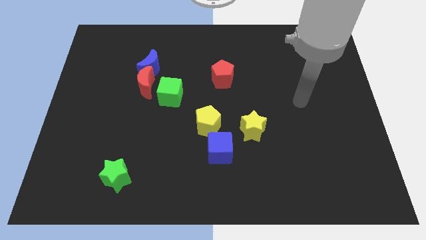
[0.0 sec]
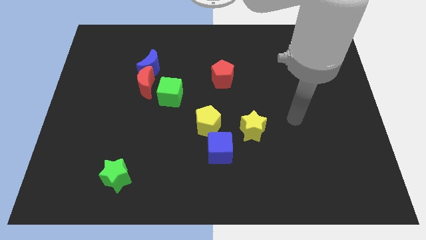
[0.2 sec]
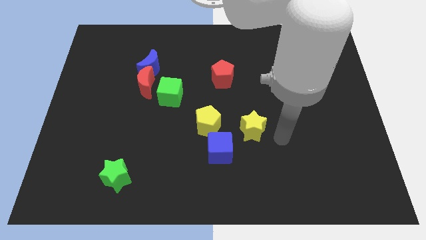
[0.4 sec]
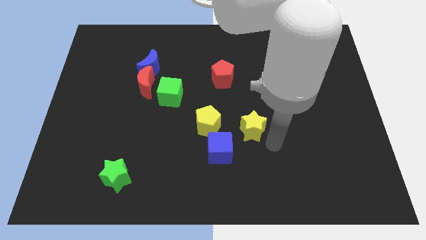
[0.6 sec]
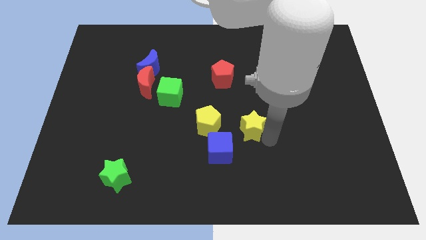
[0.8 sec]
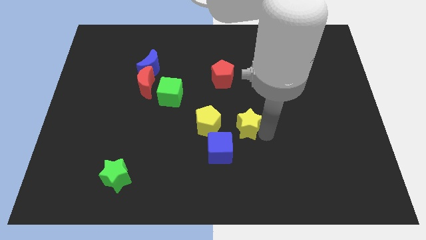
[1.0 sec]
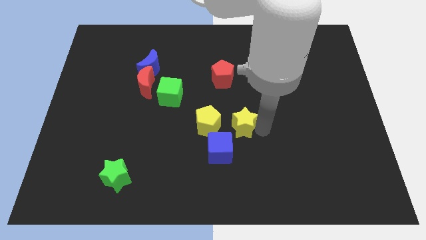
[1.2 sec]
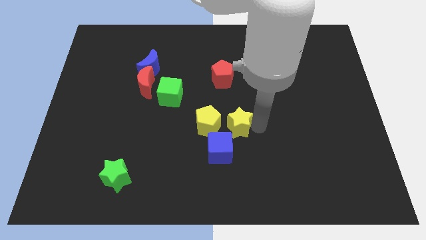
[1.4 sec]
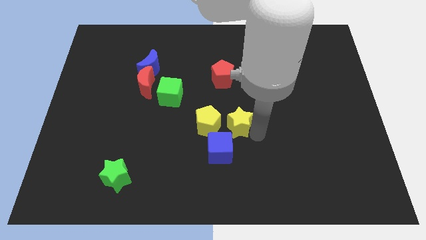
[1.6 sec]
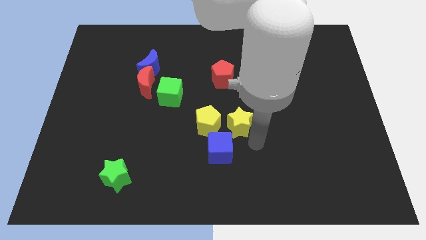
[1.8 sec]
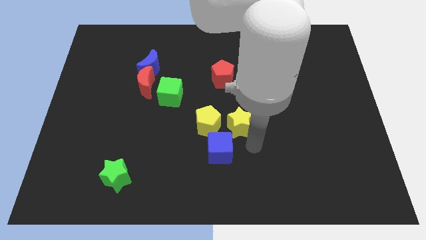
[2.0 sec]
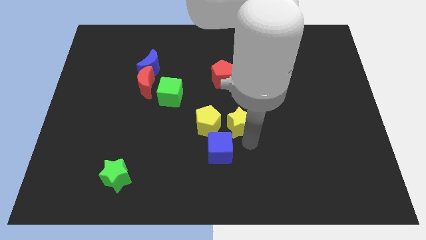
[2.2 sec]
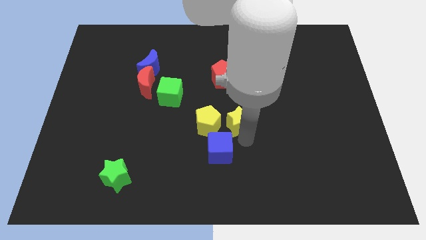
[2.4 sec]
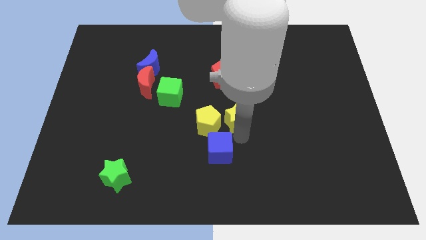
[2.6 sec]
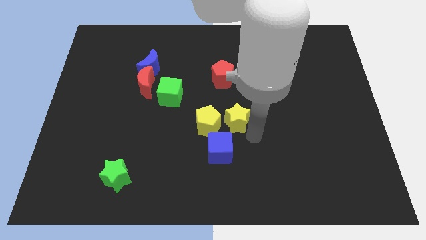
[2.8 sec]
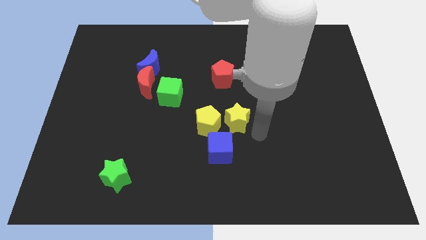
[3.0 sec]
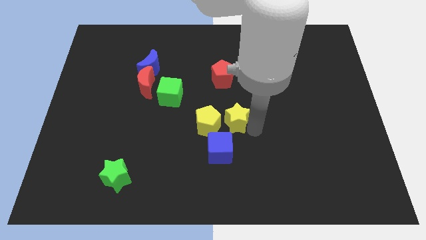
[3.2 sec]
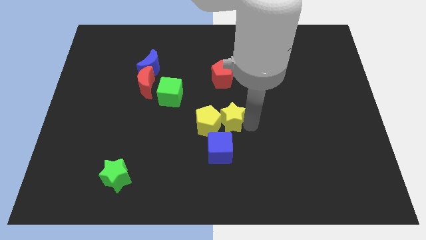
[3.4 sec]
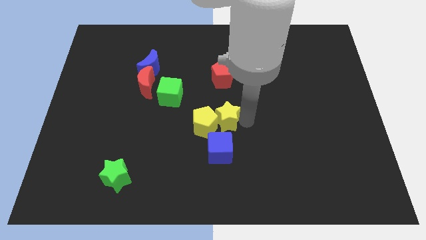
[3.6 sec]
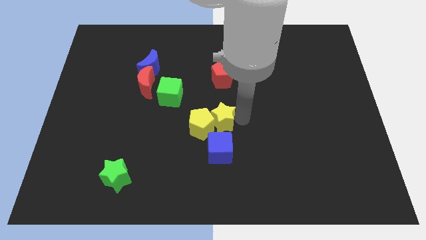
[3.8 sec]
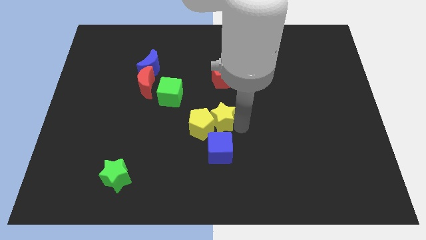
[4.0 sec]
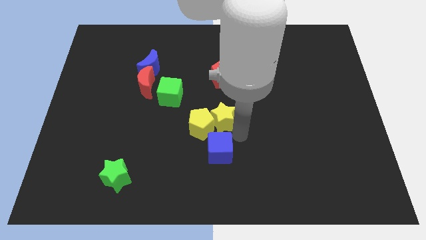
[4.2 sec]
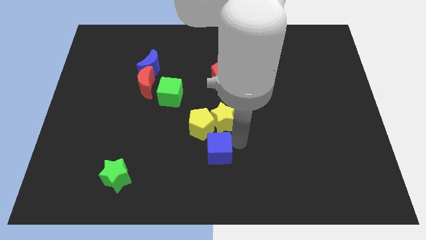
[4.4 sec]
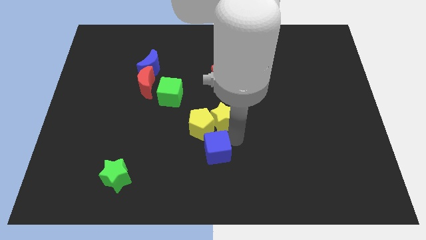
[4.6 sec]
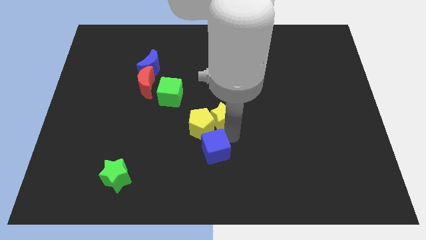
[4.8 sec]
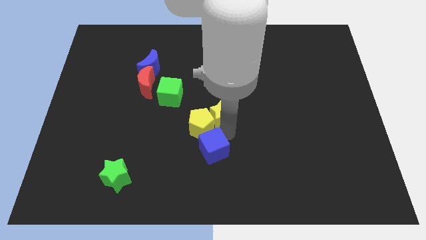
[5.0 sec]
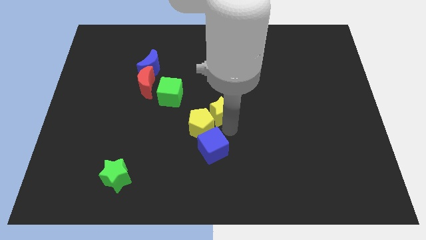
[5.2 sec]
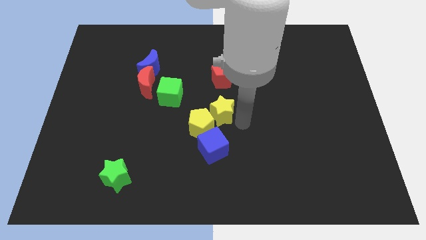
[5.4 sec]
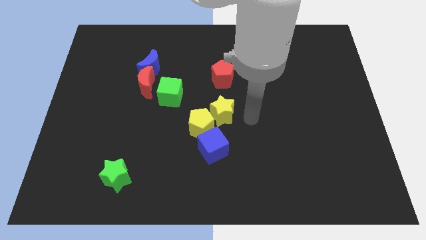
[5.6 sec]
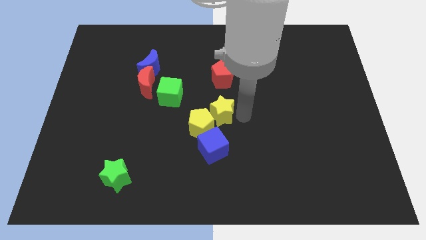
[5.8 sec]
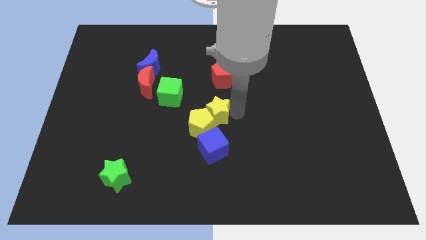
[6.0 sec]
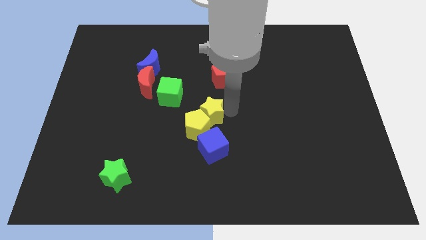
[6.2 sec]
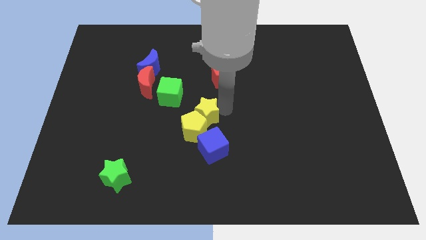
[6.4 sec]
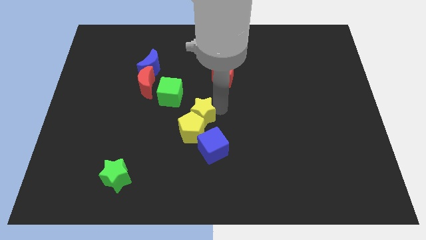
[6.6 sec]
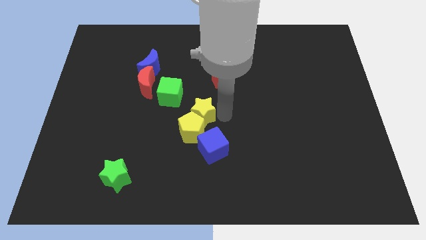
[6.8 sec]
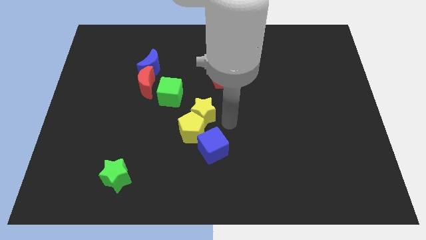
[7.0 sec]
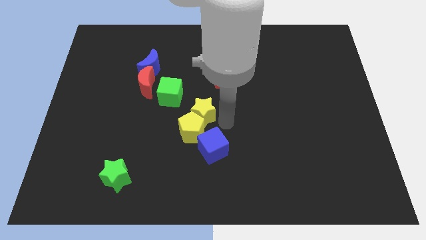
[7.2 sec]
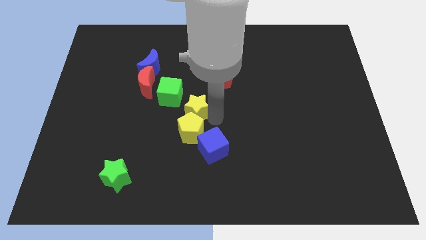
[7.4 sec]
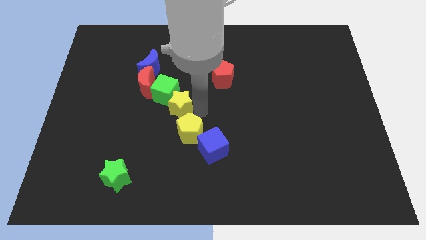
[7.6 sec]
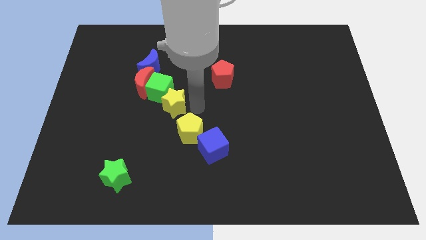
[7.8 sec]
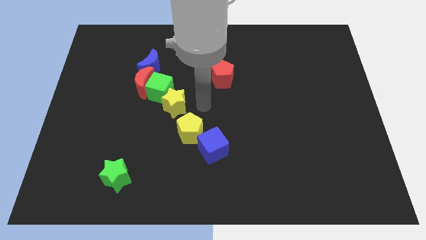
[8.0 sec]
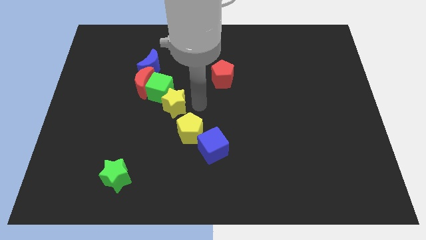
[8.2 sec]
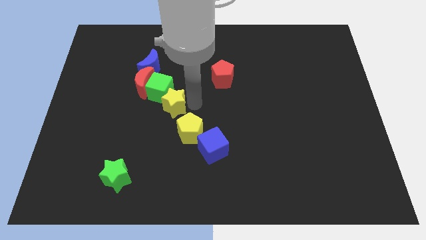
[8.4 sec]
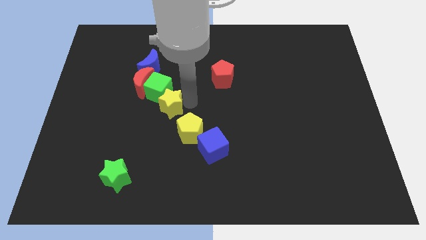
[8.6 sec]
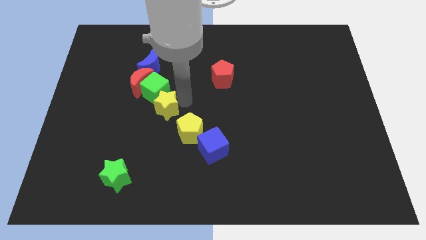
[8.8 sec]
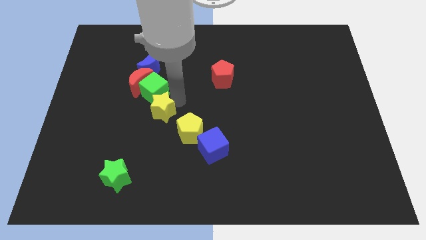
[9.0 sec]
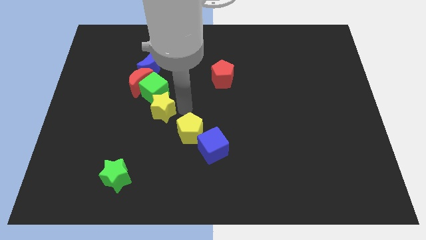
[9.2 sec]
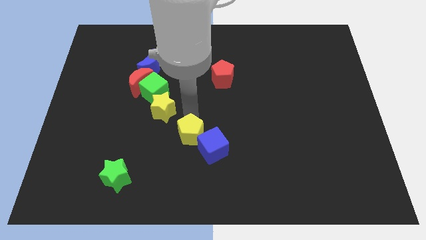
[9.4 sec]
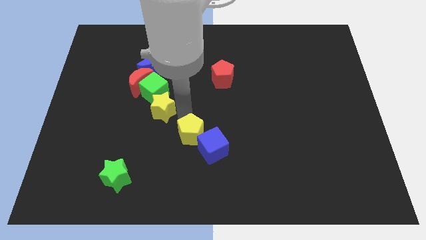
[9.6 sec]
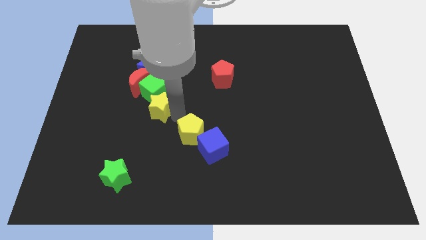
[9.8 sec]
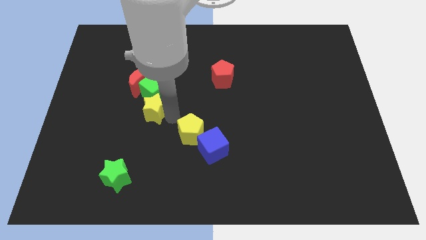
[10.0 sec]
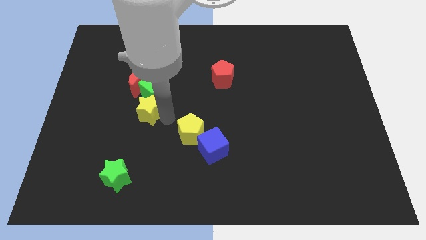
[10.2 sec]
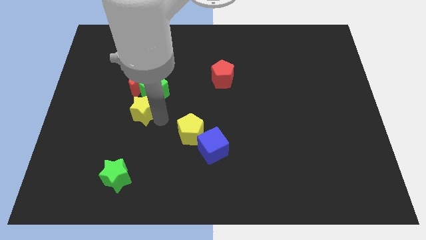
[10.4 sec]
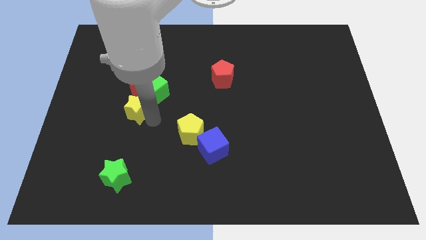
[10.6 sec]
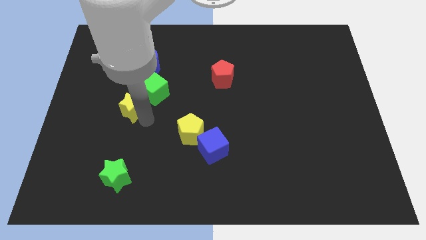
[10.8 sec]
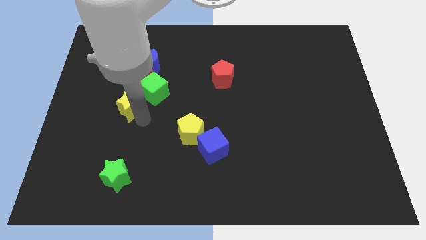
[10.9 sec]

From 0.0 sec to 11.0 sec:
move the yellow star to the bottom left of the red moon

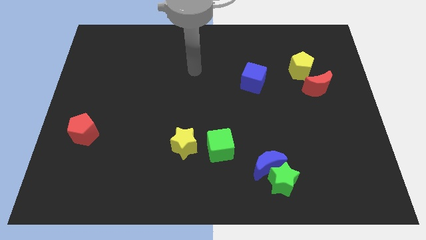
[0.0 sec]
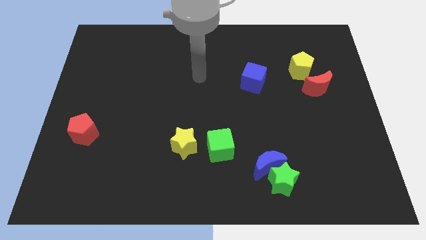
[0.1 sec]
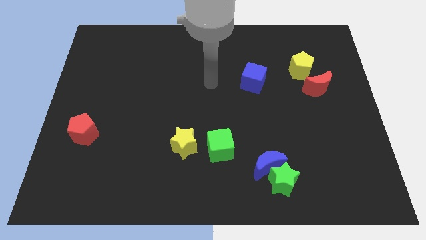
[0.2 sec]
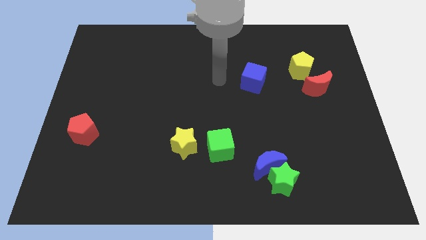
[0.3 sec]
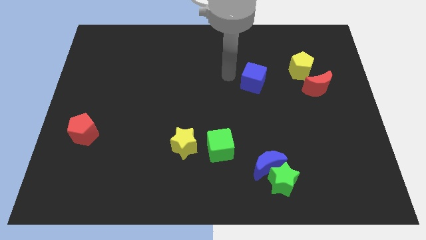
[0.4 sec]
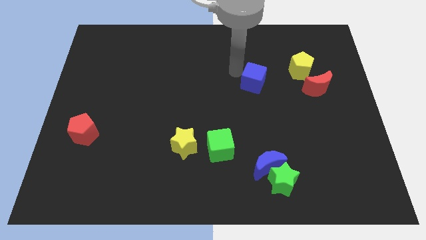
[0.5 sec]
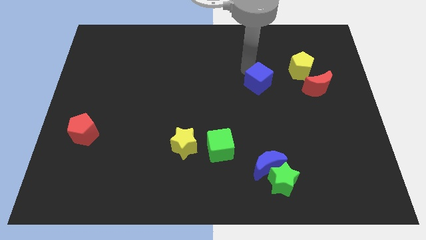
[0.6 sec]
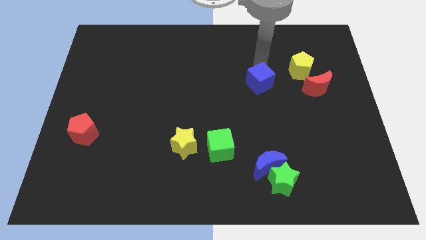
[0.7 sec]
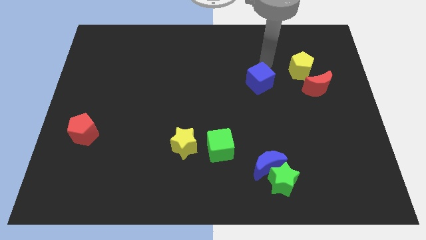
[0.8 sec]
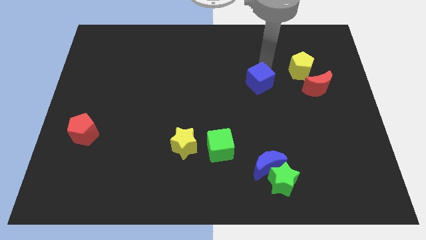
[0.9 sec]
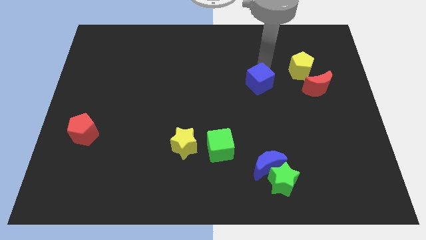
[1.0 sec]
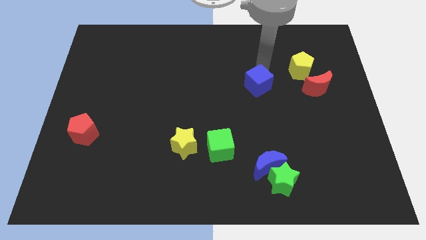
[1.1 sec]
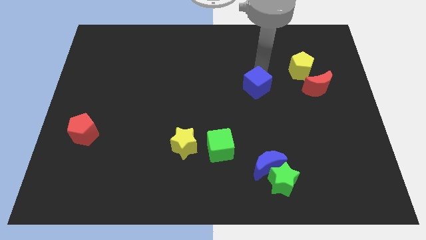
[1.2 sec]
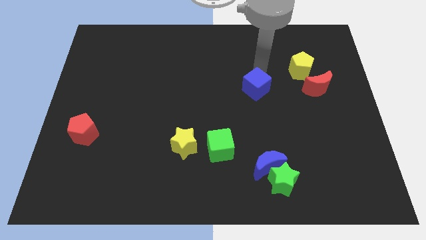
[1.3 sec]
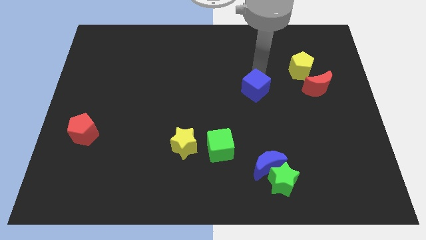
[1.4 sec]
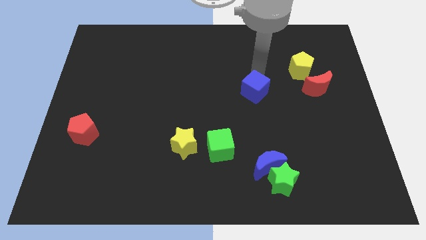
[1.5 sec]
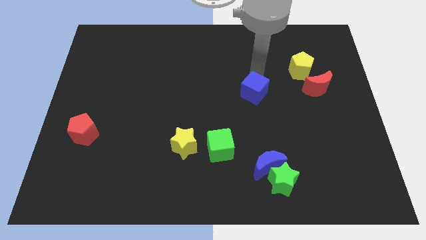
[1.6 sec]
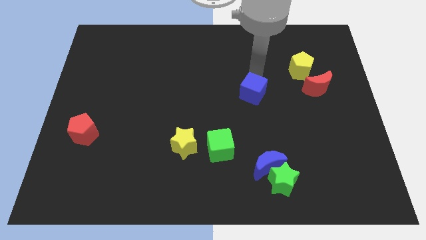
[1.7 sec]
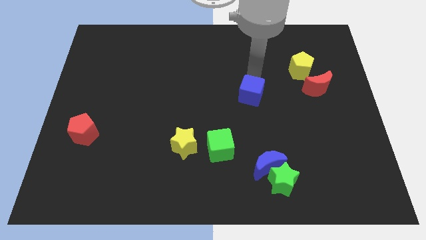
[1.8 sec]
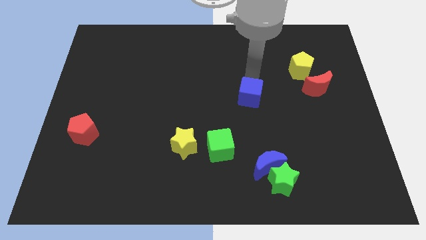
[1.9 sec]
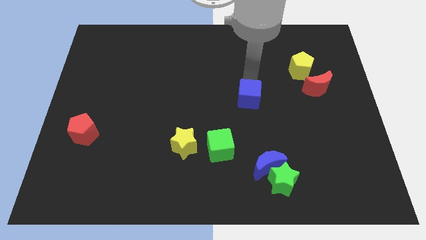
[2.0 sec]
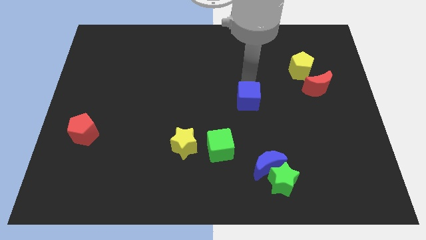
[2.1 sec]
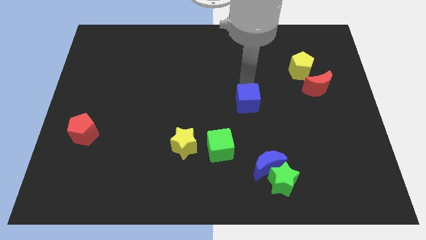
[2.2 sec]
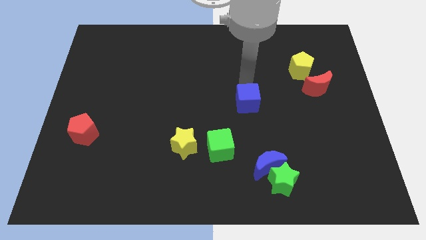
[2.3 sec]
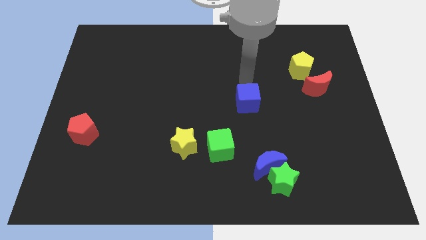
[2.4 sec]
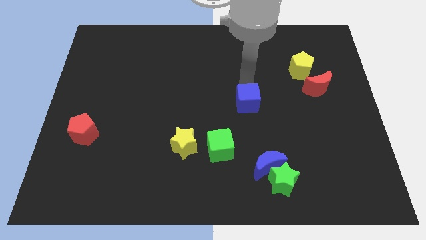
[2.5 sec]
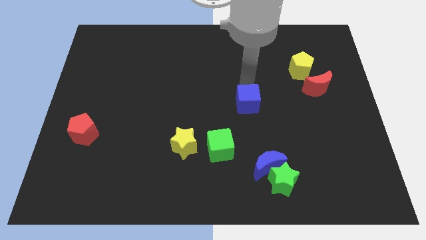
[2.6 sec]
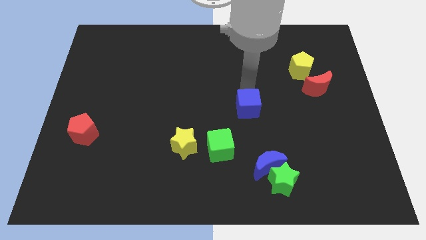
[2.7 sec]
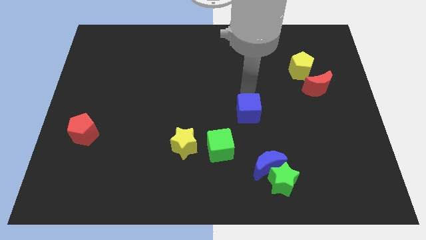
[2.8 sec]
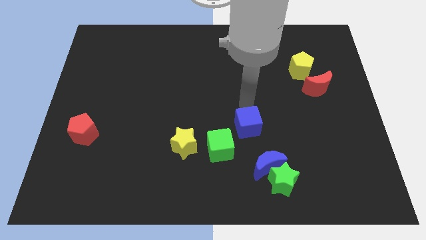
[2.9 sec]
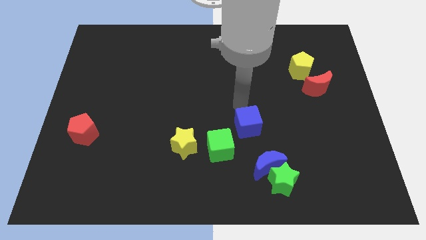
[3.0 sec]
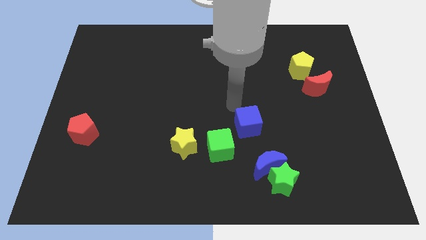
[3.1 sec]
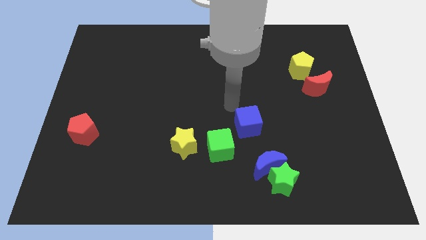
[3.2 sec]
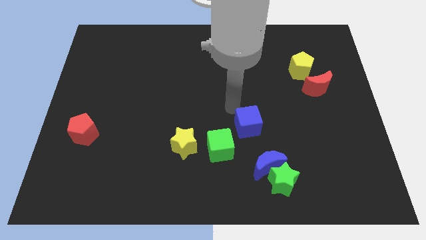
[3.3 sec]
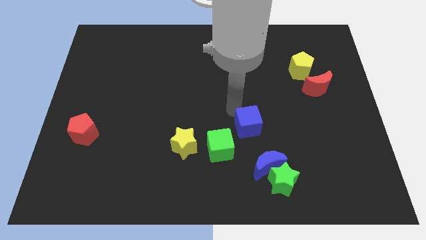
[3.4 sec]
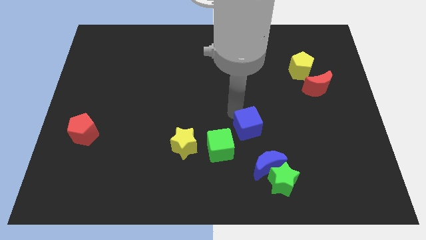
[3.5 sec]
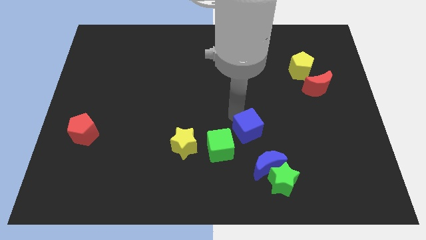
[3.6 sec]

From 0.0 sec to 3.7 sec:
put the blue cube to the right side of the green cube
